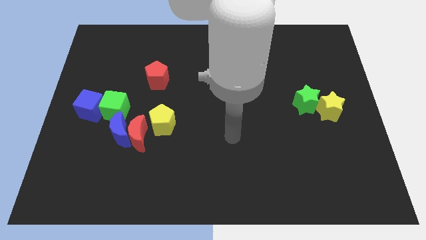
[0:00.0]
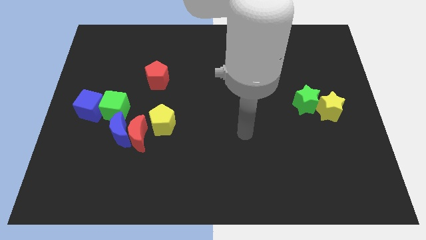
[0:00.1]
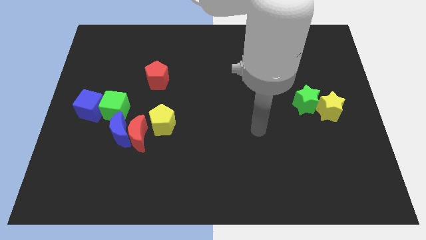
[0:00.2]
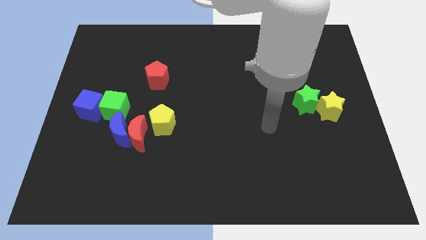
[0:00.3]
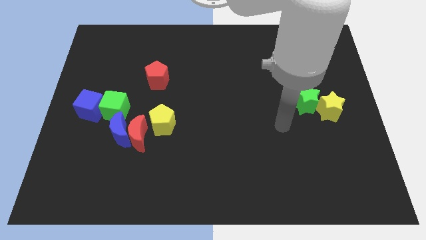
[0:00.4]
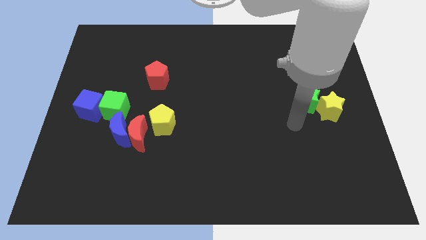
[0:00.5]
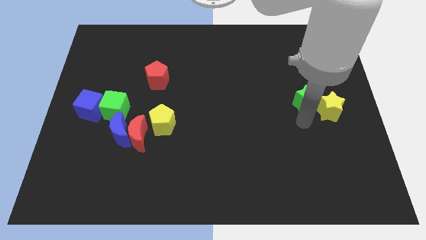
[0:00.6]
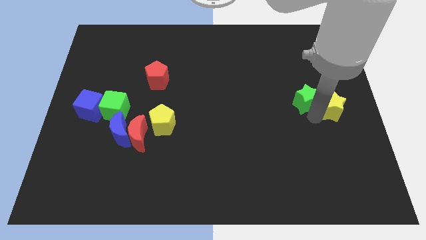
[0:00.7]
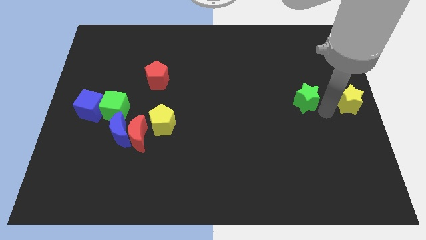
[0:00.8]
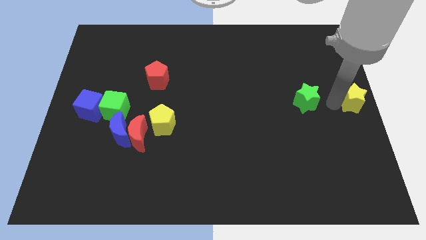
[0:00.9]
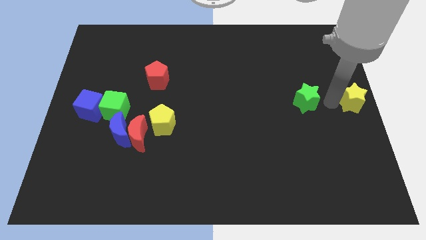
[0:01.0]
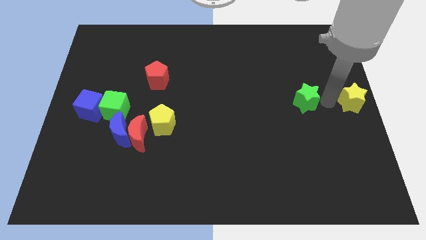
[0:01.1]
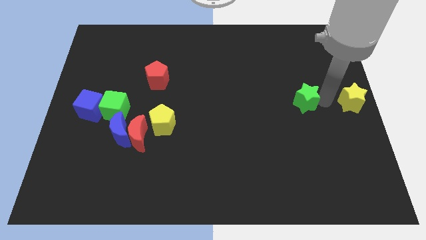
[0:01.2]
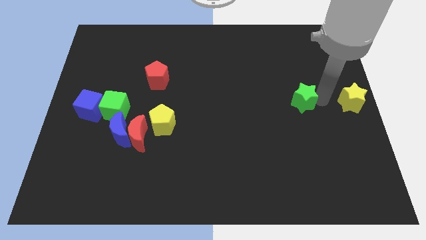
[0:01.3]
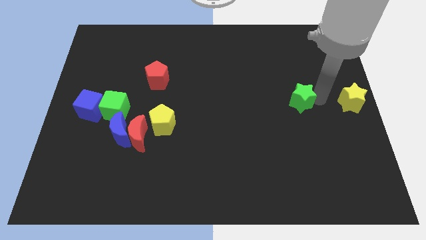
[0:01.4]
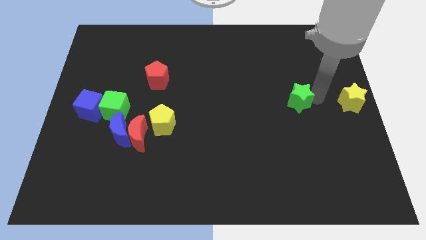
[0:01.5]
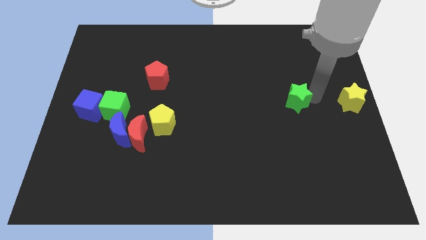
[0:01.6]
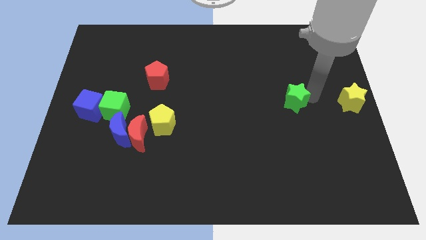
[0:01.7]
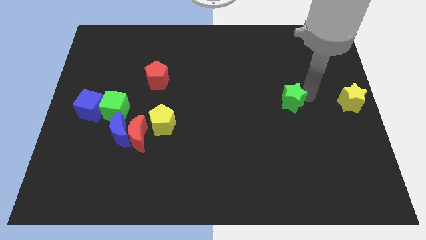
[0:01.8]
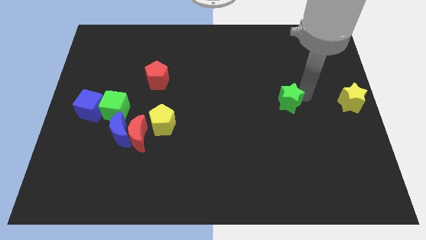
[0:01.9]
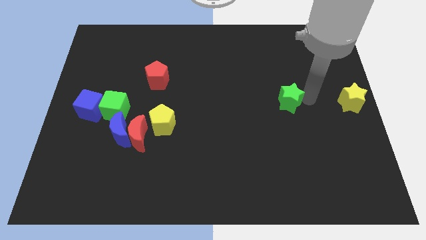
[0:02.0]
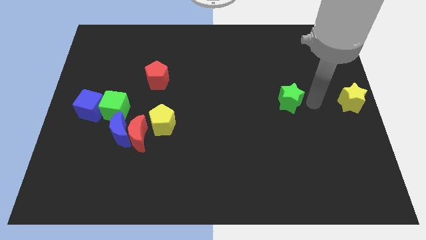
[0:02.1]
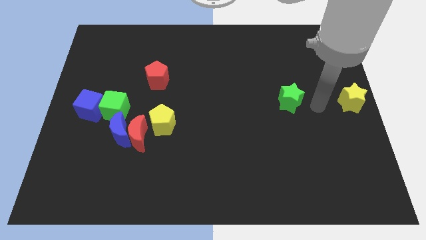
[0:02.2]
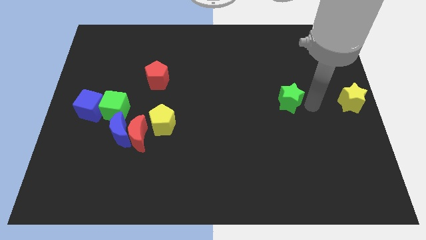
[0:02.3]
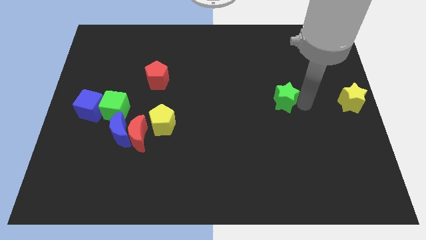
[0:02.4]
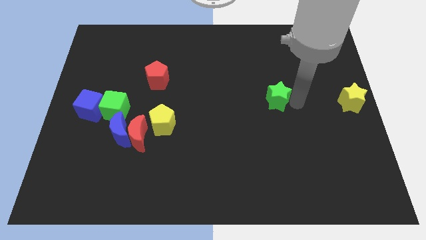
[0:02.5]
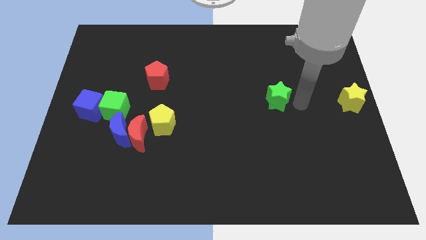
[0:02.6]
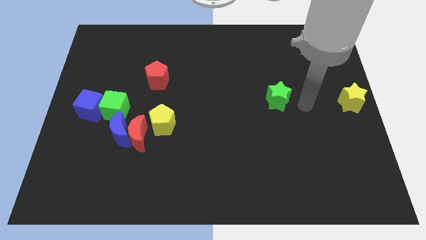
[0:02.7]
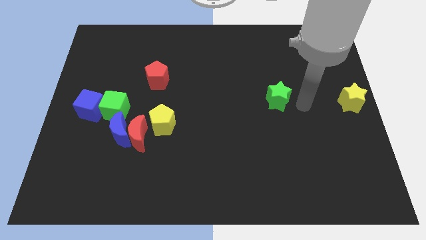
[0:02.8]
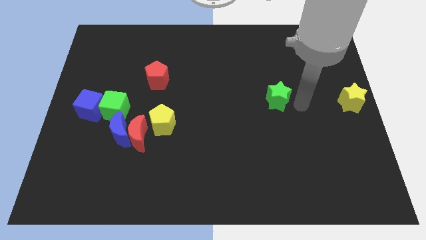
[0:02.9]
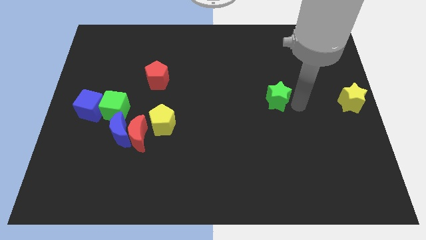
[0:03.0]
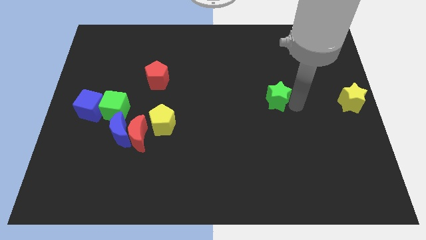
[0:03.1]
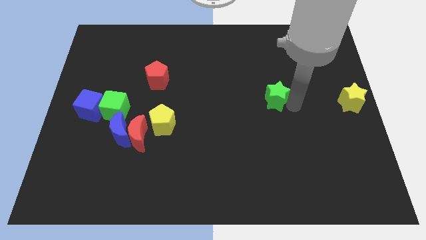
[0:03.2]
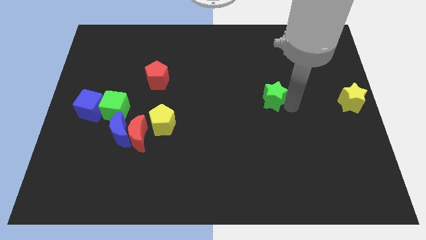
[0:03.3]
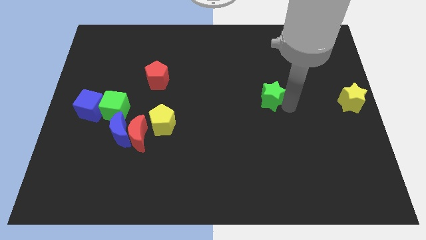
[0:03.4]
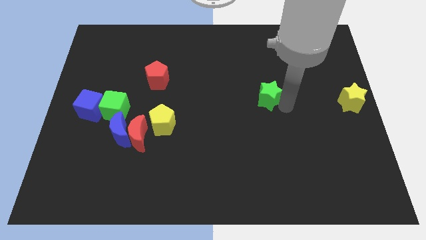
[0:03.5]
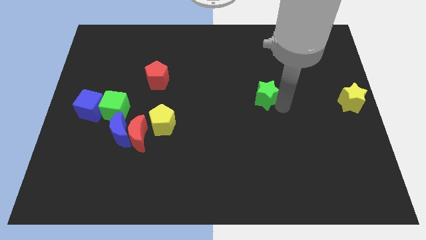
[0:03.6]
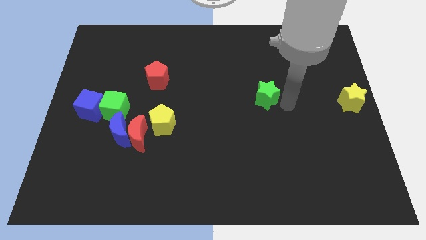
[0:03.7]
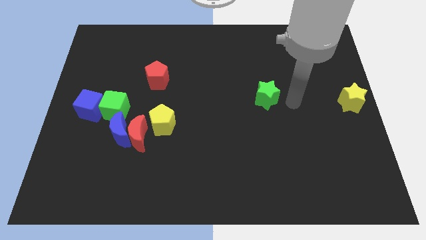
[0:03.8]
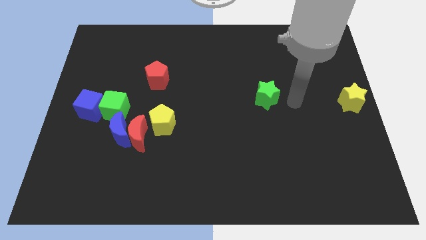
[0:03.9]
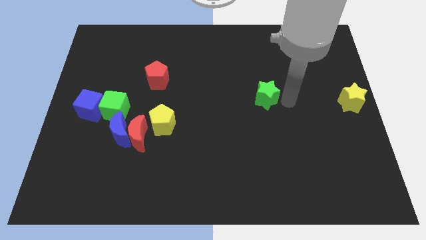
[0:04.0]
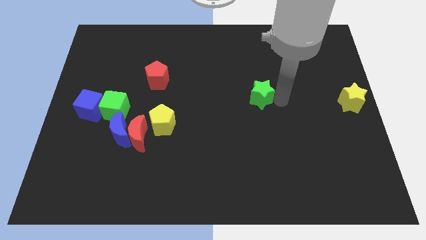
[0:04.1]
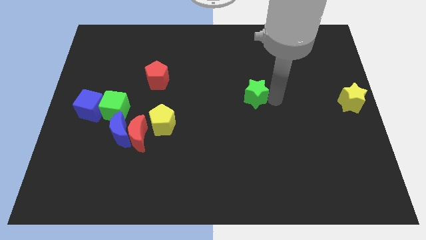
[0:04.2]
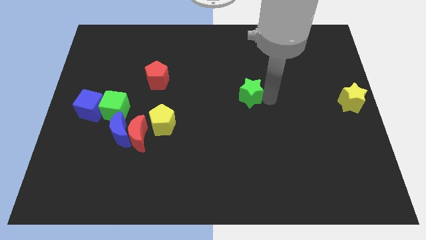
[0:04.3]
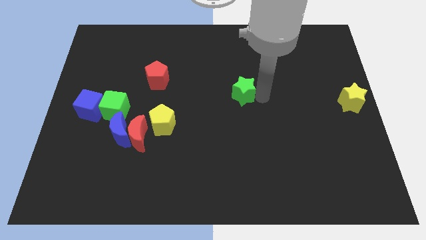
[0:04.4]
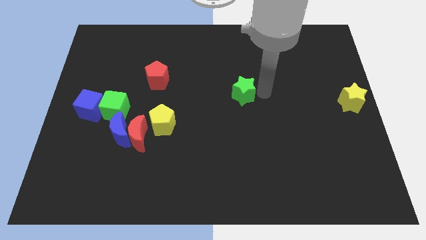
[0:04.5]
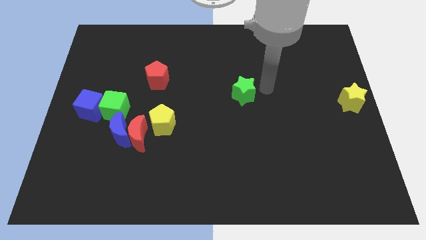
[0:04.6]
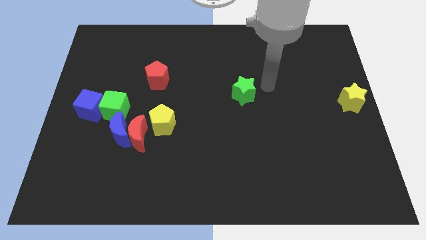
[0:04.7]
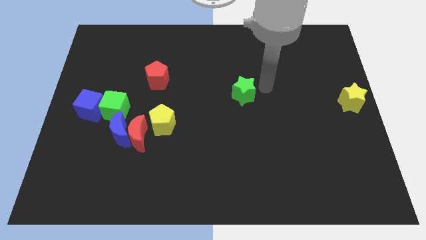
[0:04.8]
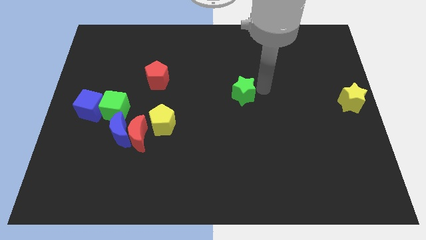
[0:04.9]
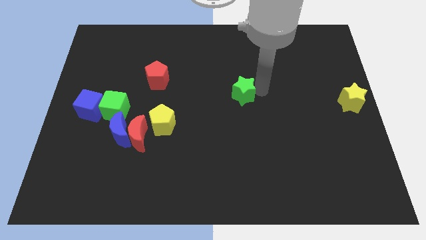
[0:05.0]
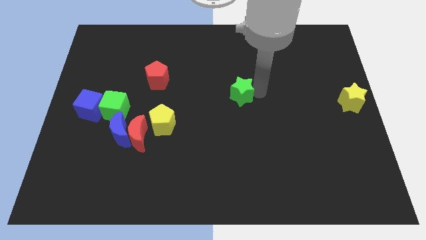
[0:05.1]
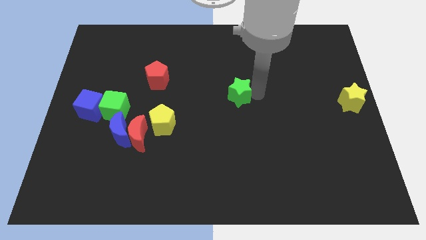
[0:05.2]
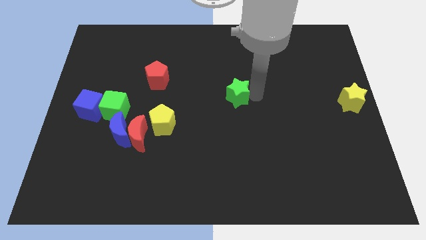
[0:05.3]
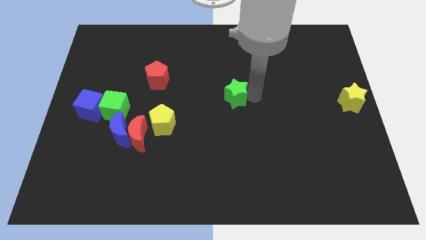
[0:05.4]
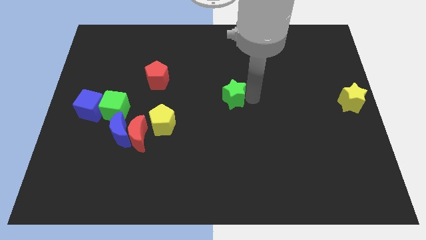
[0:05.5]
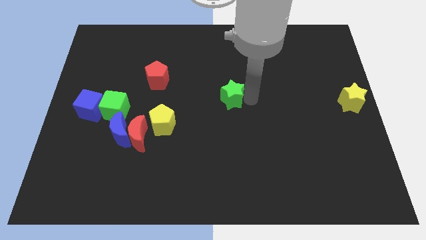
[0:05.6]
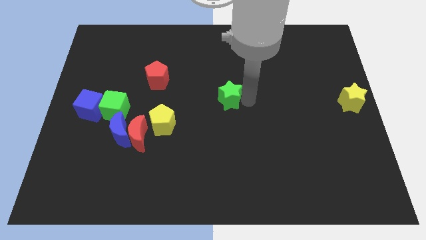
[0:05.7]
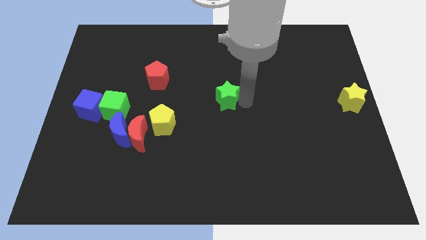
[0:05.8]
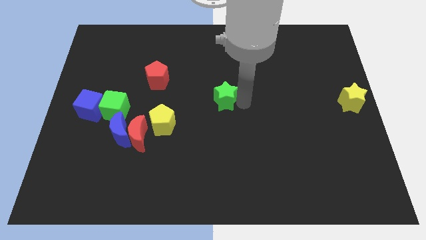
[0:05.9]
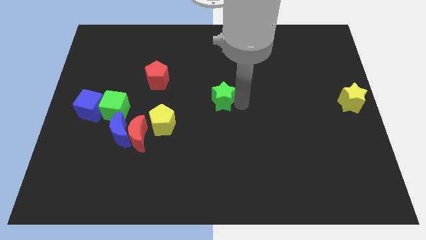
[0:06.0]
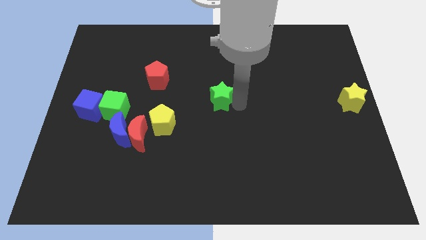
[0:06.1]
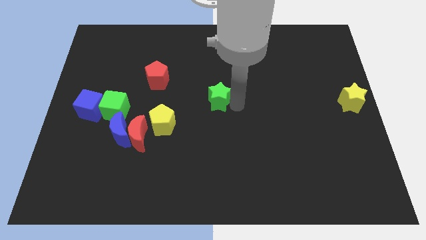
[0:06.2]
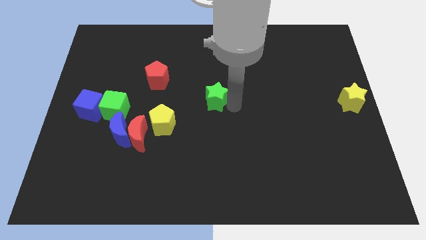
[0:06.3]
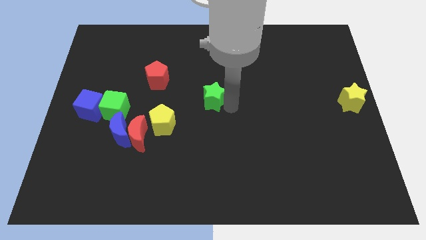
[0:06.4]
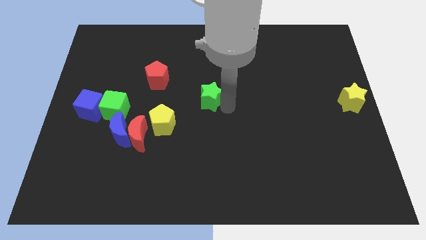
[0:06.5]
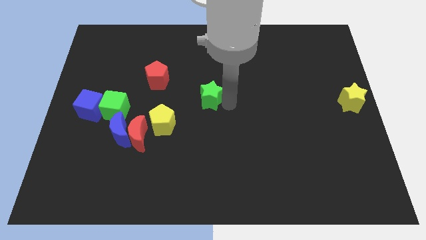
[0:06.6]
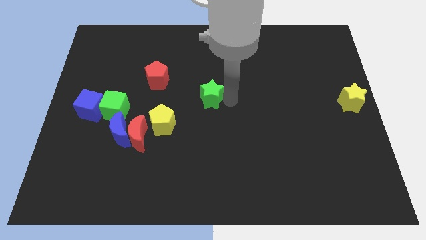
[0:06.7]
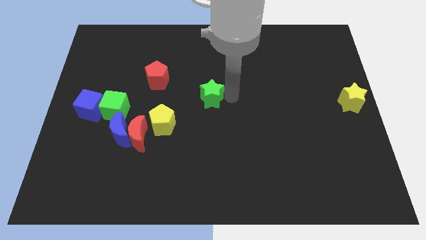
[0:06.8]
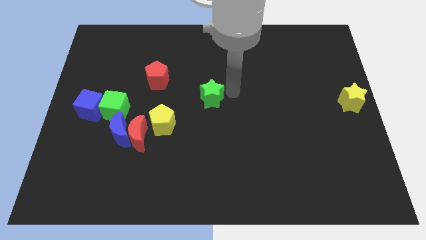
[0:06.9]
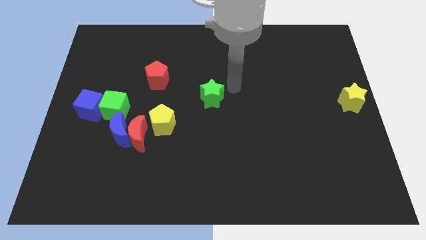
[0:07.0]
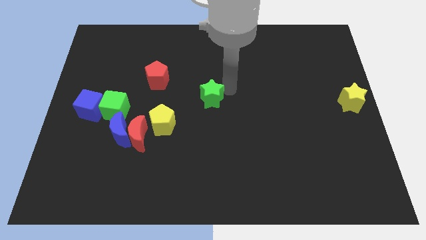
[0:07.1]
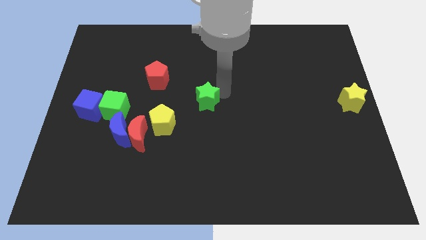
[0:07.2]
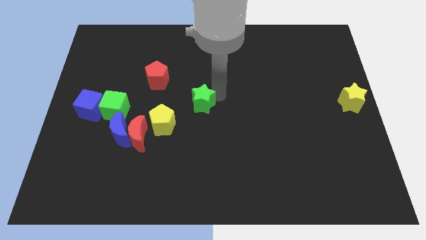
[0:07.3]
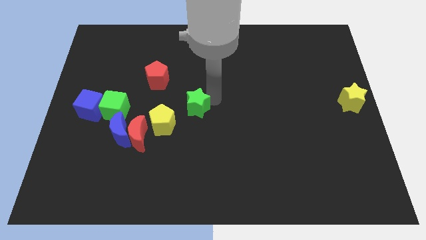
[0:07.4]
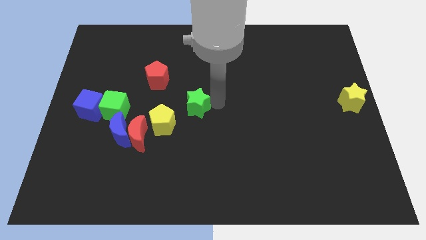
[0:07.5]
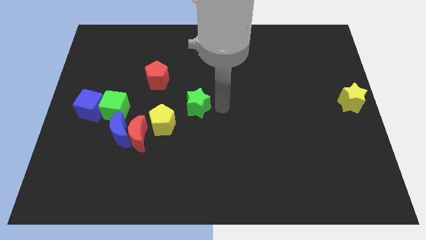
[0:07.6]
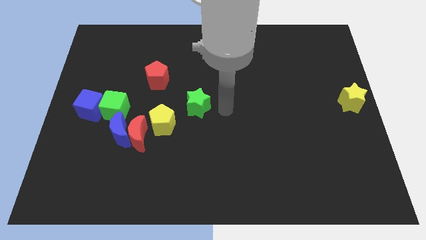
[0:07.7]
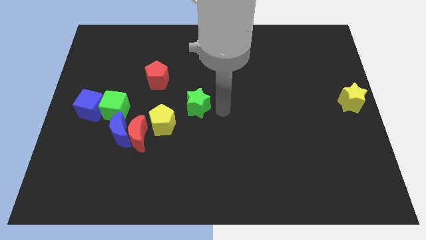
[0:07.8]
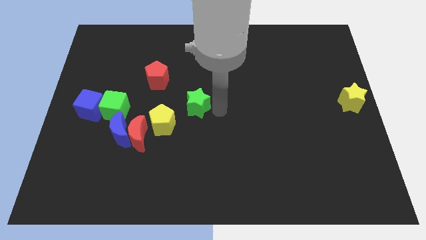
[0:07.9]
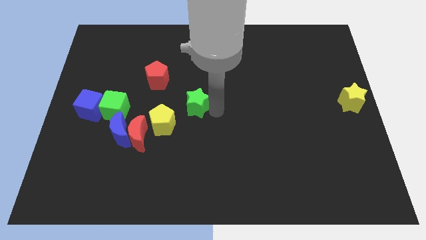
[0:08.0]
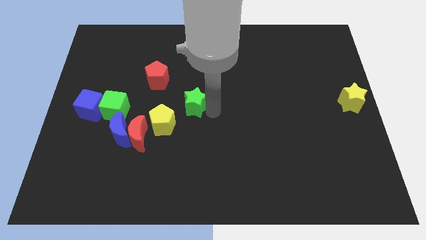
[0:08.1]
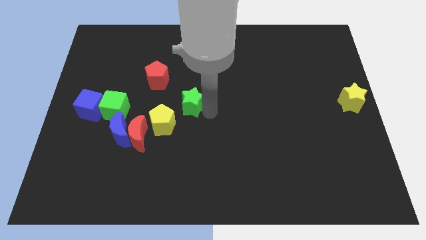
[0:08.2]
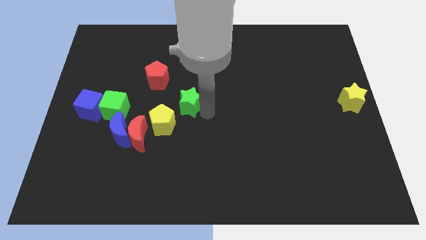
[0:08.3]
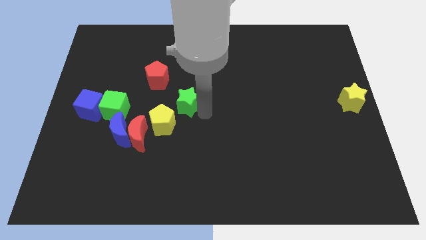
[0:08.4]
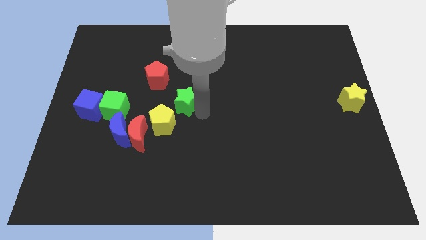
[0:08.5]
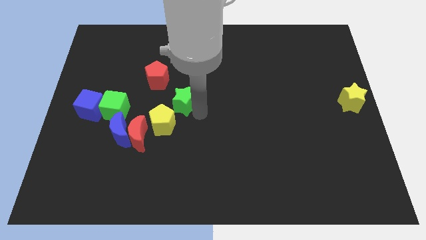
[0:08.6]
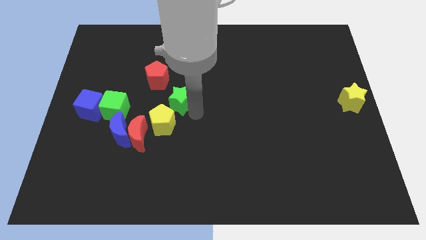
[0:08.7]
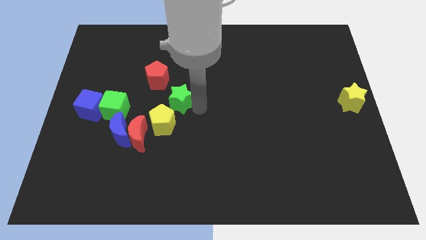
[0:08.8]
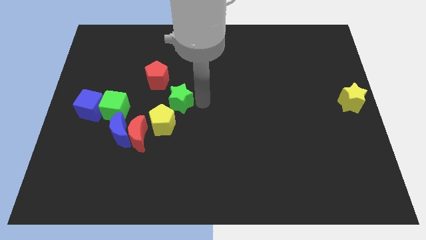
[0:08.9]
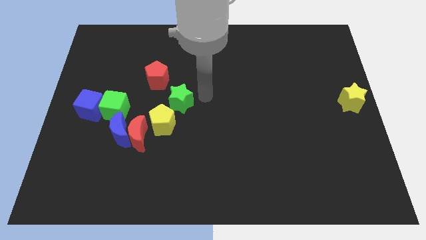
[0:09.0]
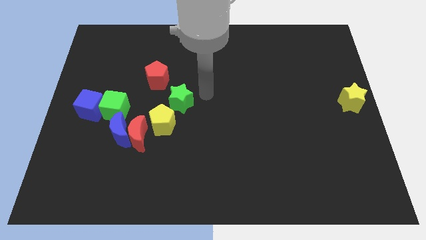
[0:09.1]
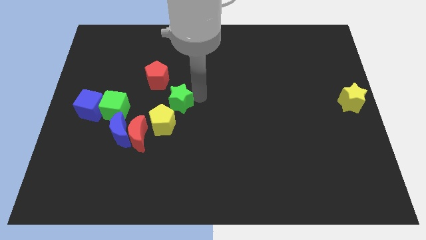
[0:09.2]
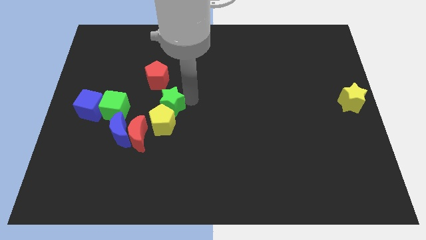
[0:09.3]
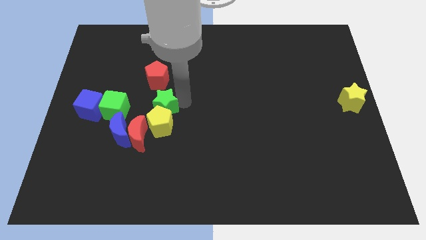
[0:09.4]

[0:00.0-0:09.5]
slide the green star to the top right of the blue moon
